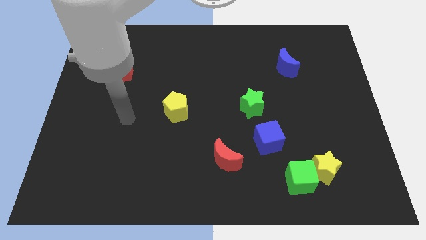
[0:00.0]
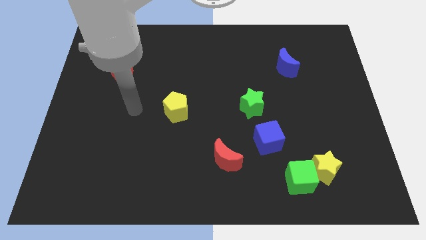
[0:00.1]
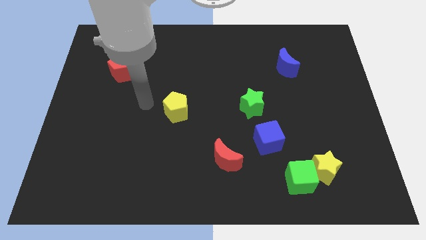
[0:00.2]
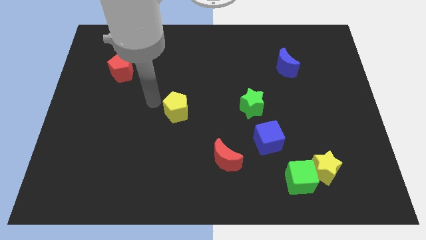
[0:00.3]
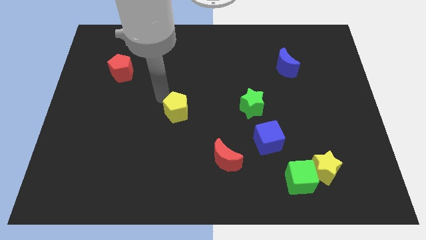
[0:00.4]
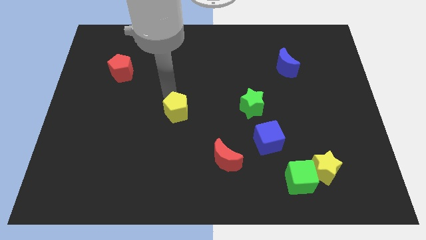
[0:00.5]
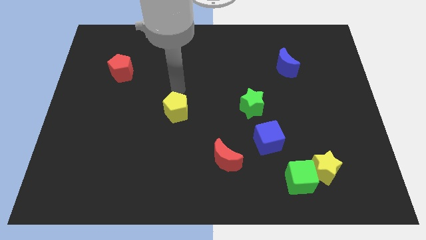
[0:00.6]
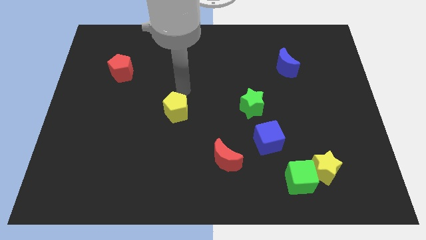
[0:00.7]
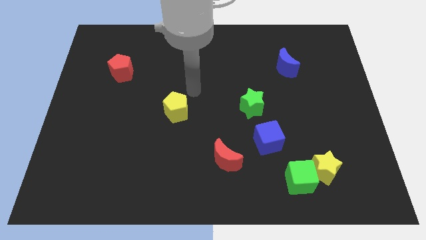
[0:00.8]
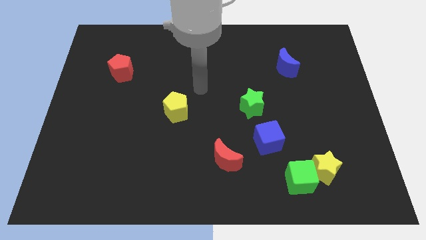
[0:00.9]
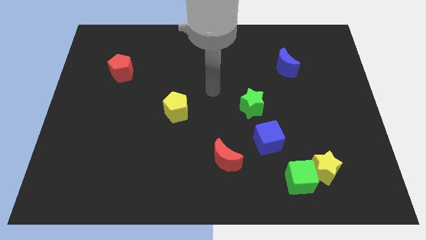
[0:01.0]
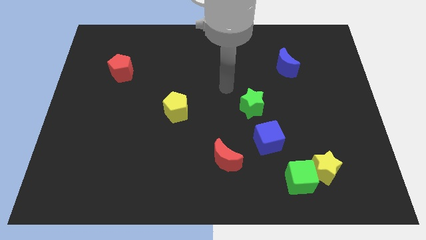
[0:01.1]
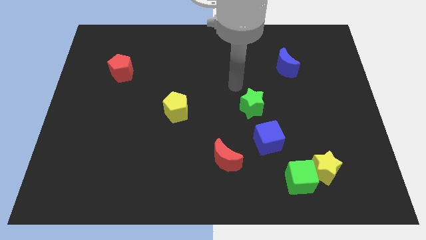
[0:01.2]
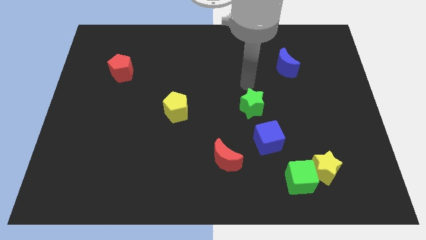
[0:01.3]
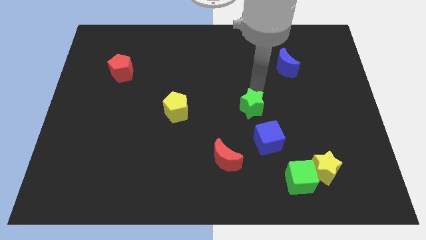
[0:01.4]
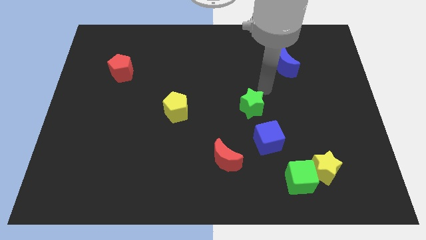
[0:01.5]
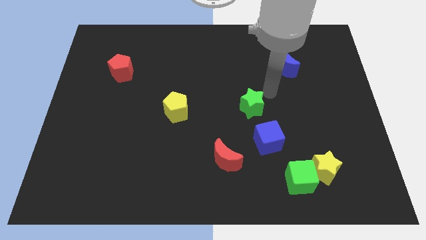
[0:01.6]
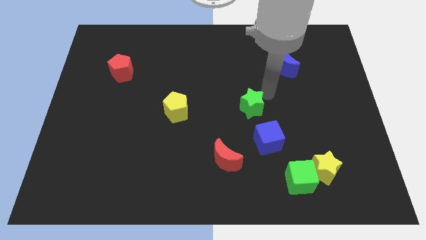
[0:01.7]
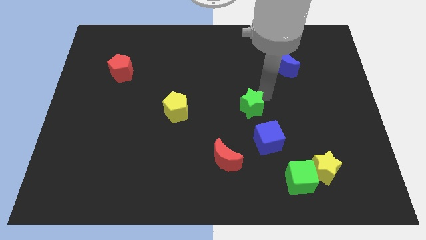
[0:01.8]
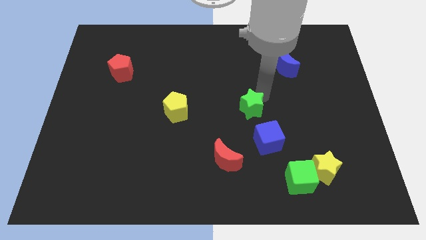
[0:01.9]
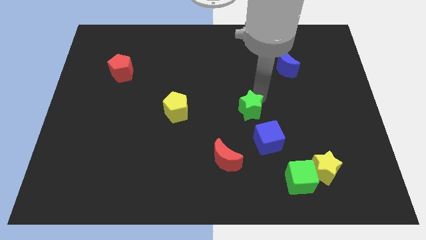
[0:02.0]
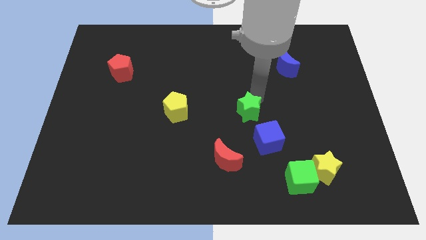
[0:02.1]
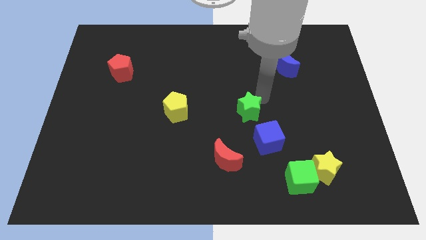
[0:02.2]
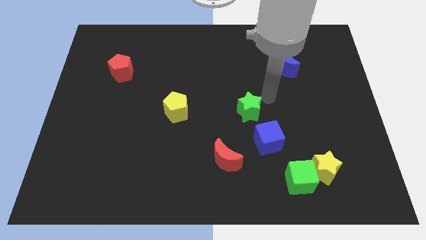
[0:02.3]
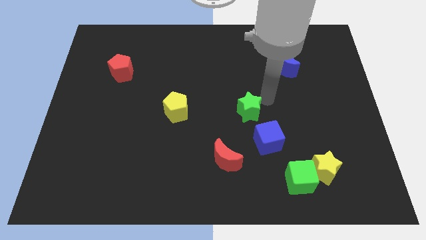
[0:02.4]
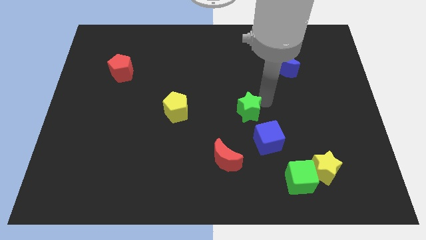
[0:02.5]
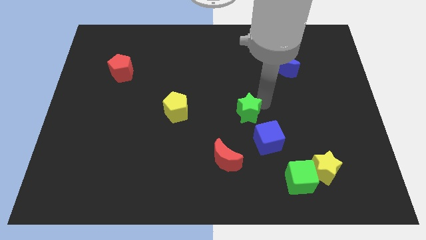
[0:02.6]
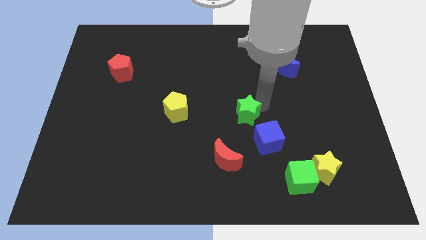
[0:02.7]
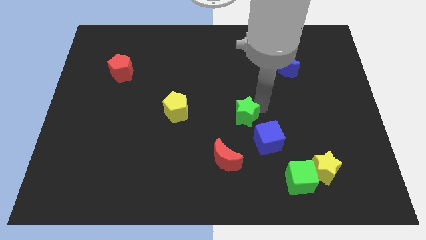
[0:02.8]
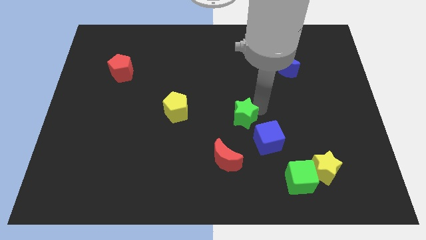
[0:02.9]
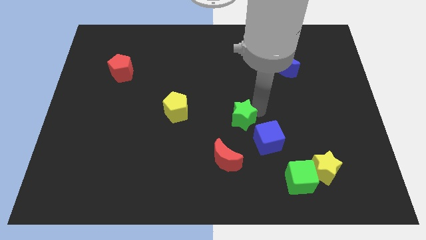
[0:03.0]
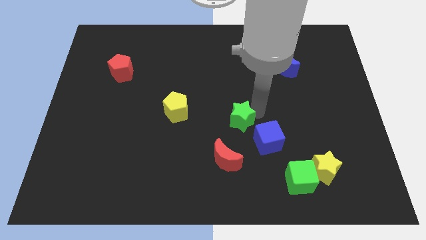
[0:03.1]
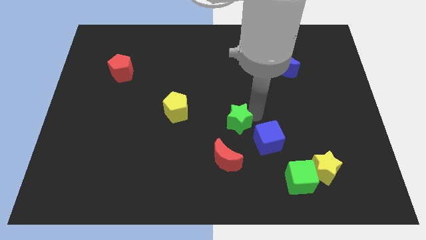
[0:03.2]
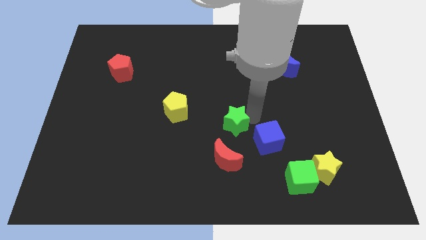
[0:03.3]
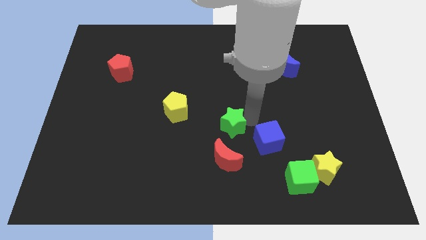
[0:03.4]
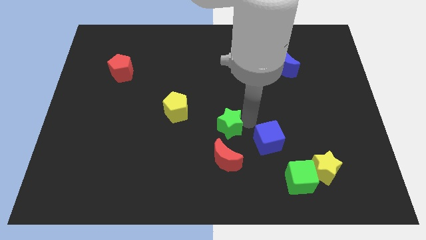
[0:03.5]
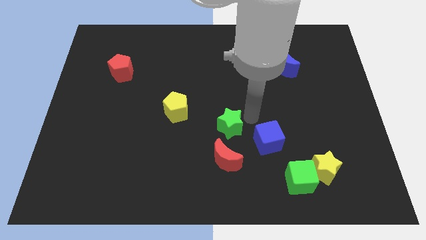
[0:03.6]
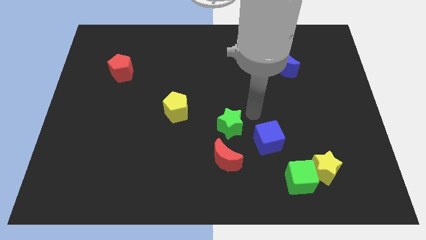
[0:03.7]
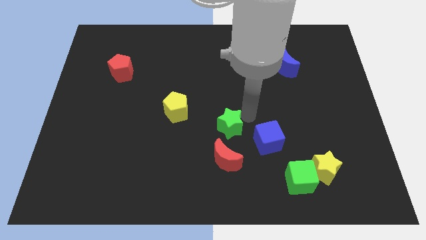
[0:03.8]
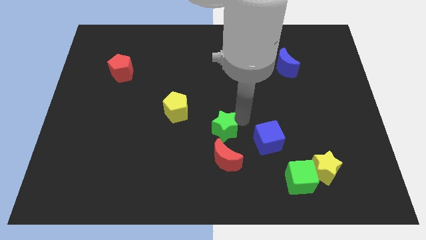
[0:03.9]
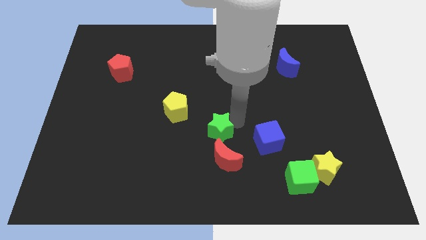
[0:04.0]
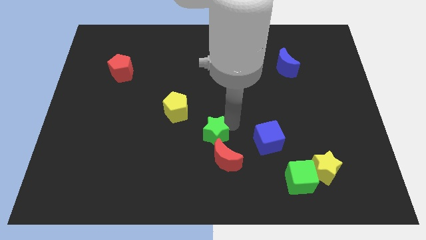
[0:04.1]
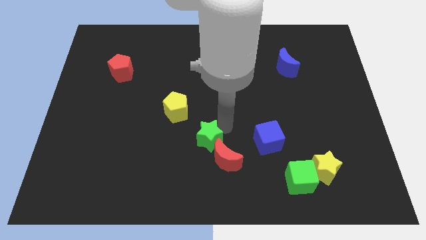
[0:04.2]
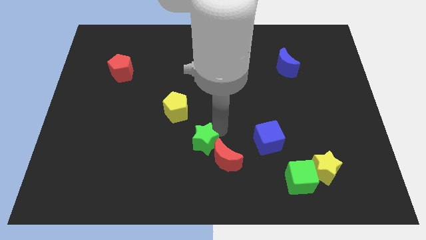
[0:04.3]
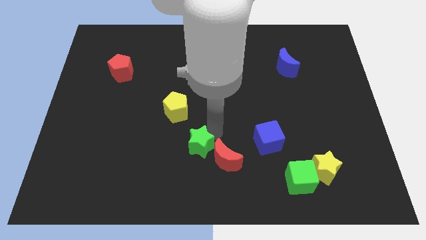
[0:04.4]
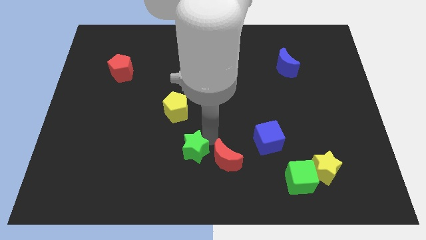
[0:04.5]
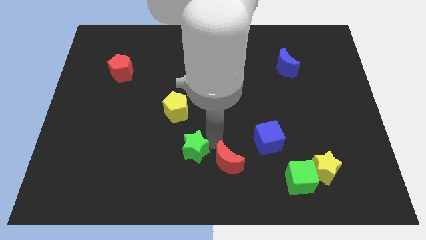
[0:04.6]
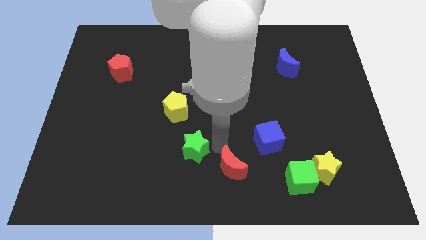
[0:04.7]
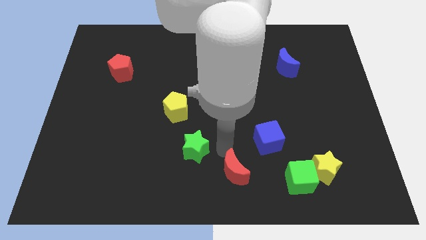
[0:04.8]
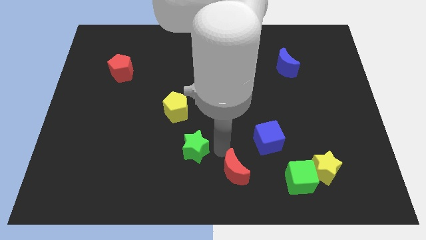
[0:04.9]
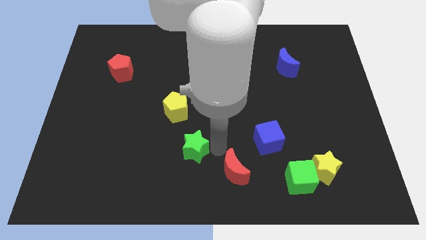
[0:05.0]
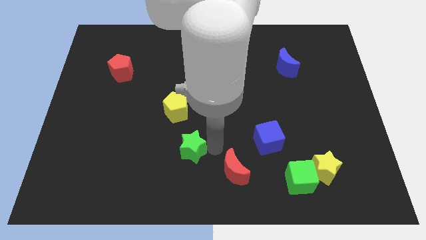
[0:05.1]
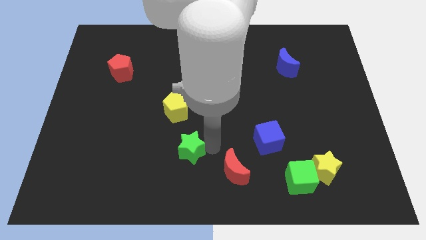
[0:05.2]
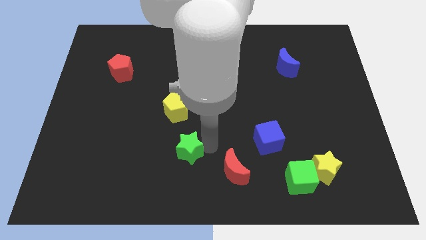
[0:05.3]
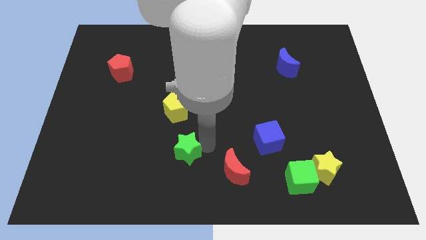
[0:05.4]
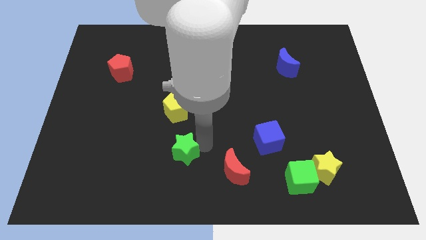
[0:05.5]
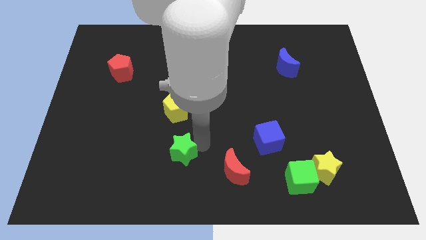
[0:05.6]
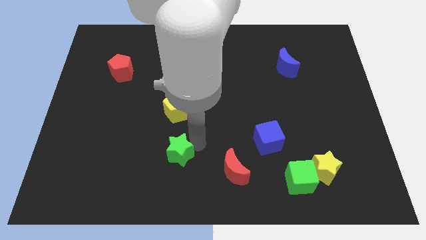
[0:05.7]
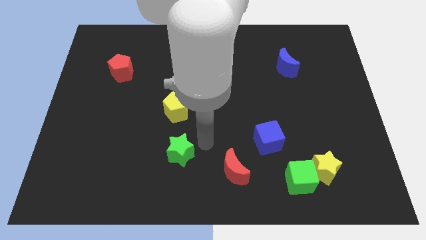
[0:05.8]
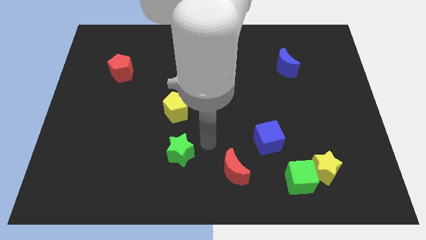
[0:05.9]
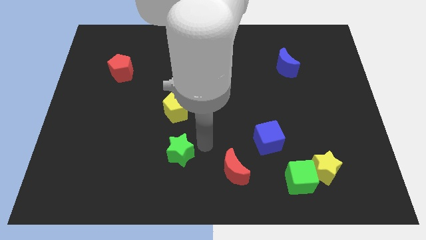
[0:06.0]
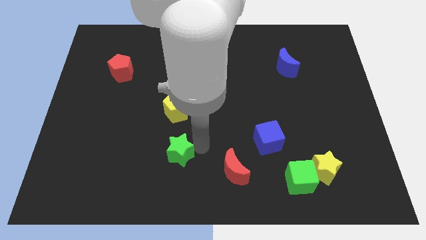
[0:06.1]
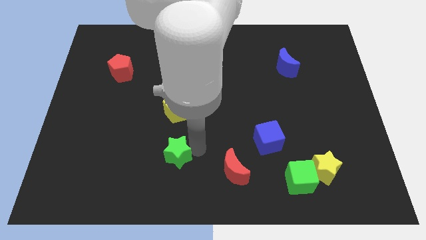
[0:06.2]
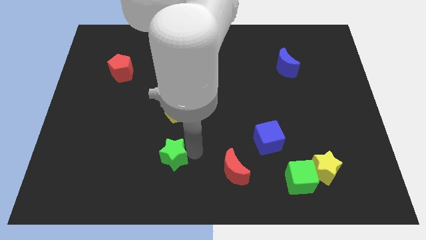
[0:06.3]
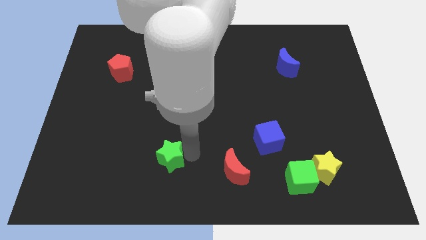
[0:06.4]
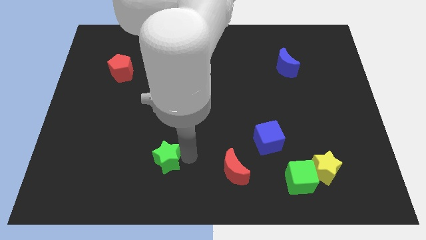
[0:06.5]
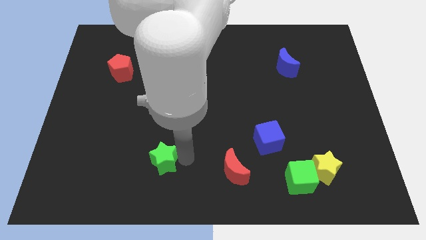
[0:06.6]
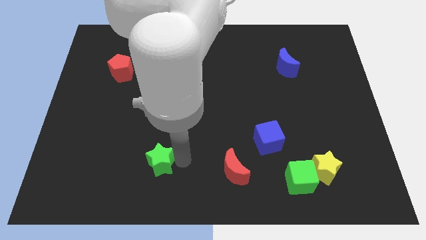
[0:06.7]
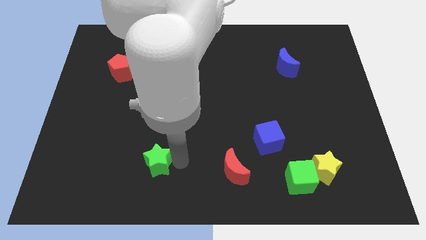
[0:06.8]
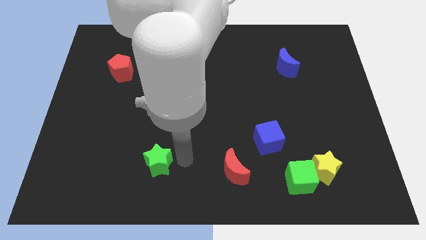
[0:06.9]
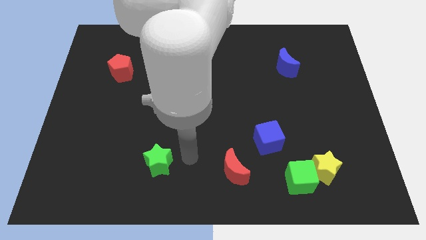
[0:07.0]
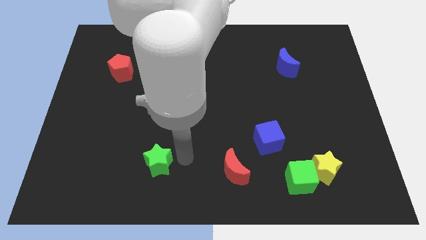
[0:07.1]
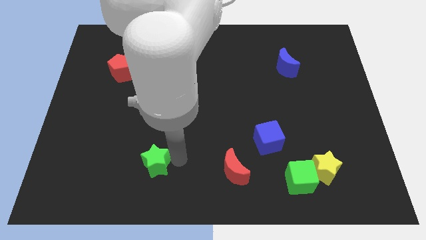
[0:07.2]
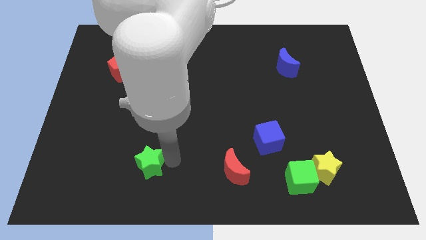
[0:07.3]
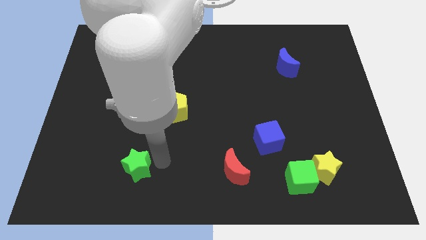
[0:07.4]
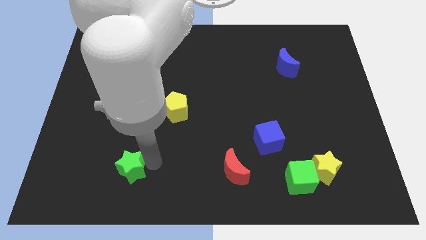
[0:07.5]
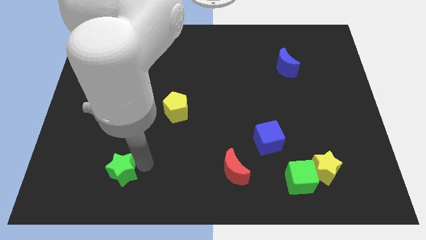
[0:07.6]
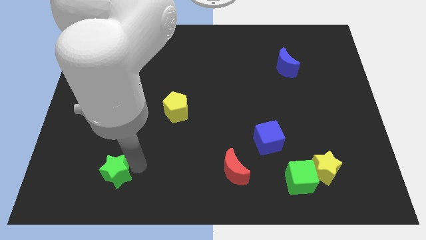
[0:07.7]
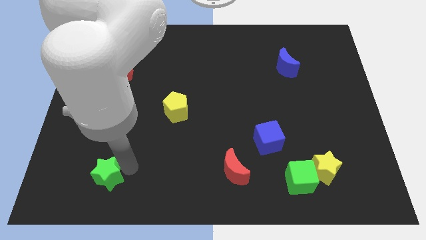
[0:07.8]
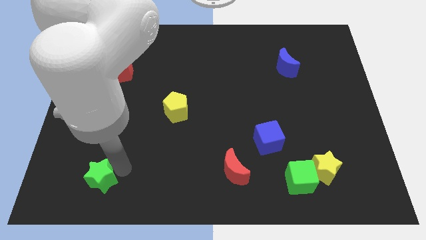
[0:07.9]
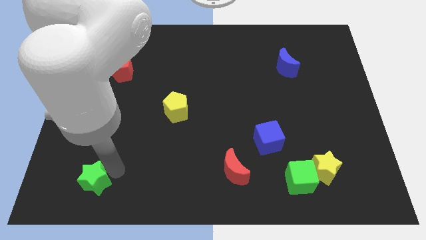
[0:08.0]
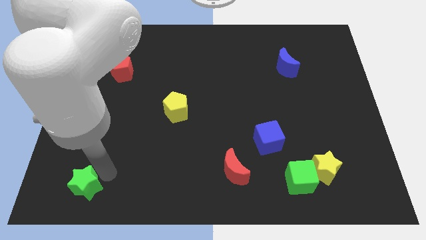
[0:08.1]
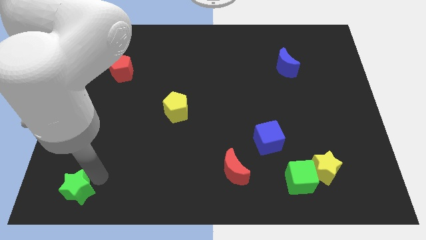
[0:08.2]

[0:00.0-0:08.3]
slide the green star to the bottom left
